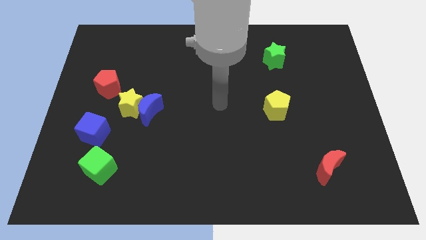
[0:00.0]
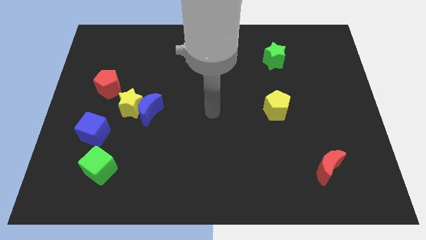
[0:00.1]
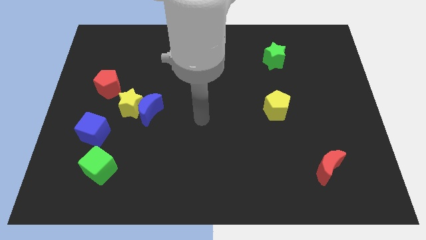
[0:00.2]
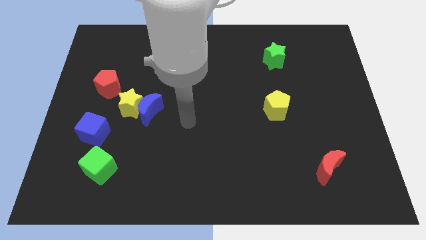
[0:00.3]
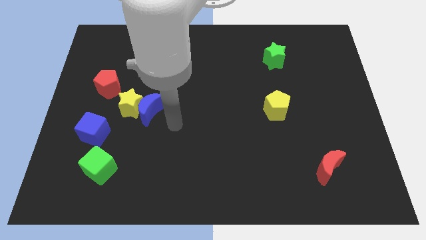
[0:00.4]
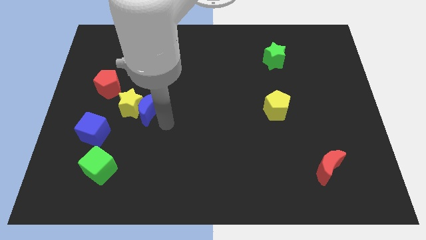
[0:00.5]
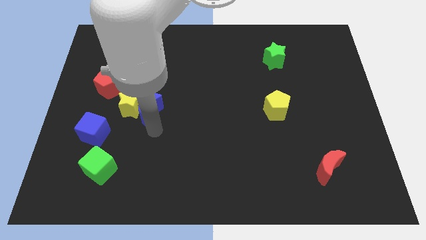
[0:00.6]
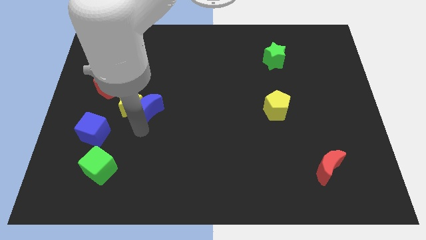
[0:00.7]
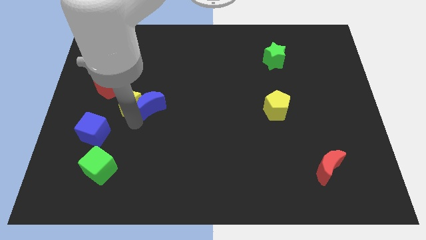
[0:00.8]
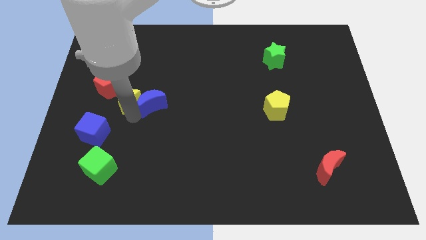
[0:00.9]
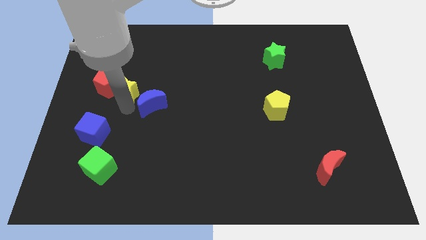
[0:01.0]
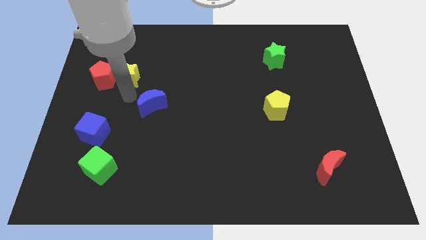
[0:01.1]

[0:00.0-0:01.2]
separate the blue moon from the yellow star

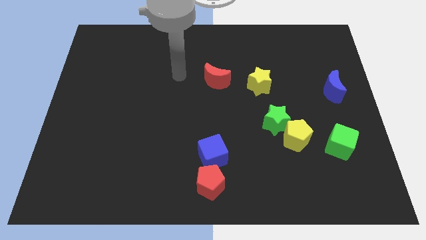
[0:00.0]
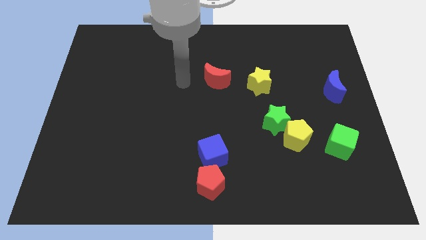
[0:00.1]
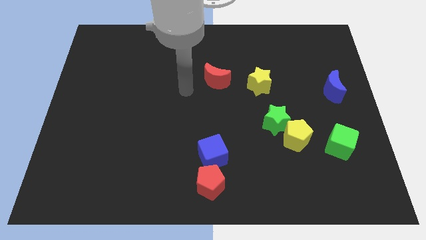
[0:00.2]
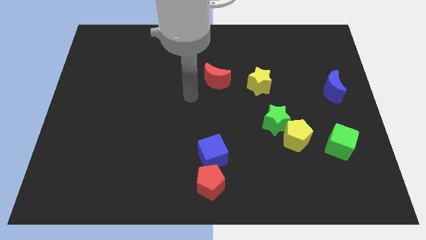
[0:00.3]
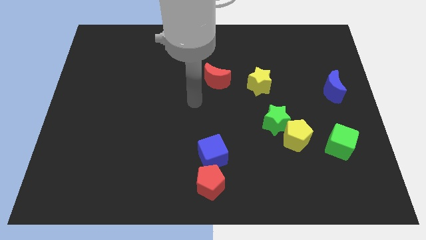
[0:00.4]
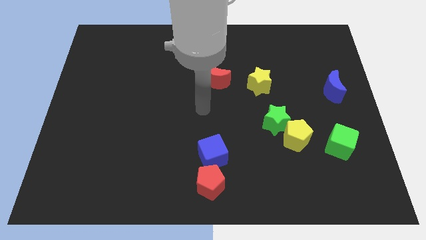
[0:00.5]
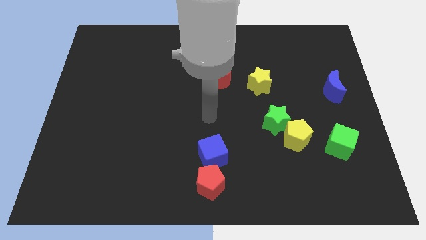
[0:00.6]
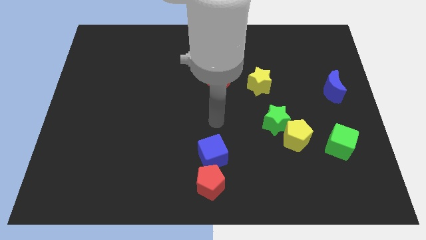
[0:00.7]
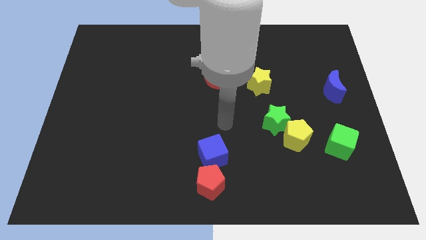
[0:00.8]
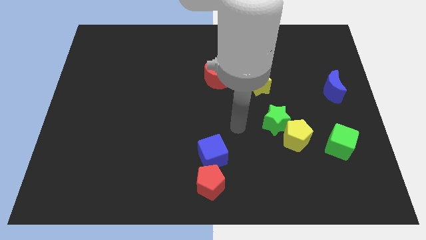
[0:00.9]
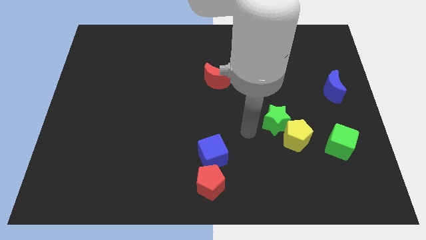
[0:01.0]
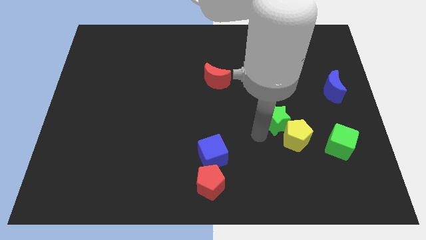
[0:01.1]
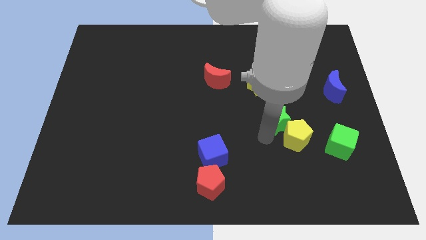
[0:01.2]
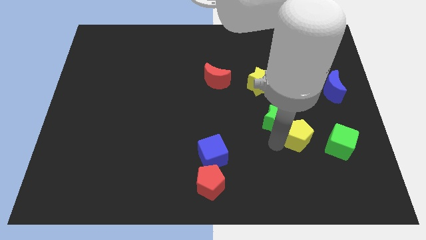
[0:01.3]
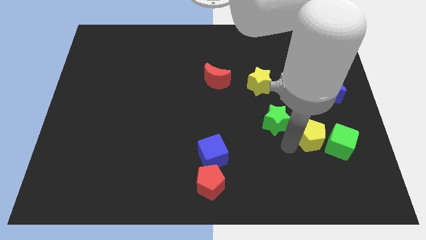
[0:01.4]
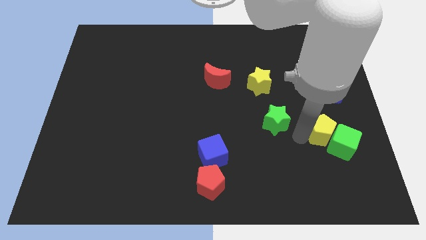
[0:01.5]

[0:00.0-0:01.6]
separate the green star from the yellow pentagon

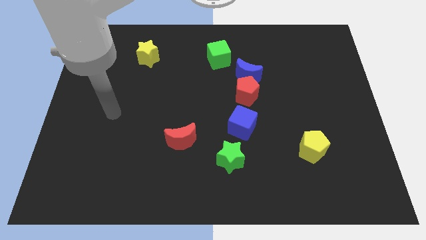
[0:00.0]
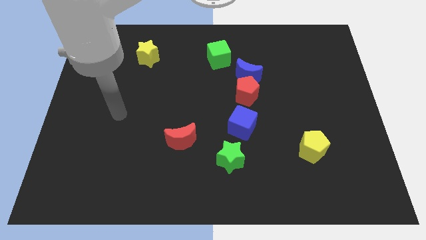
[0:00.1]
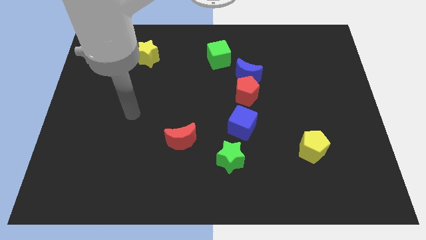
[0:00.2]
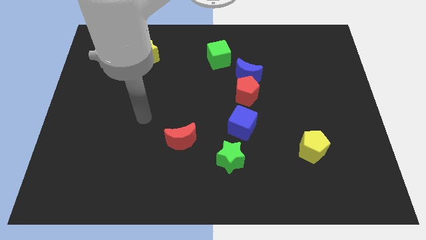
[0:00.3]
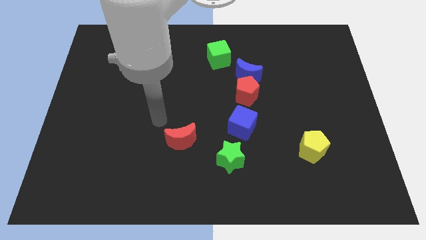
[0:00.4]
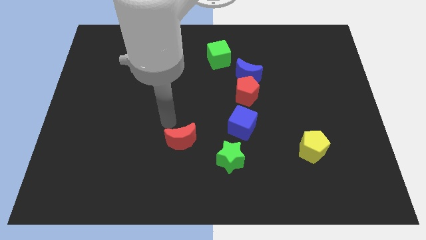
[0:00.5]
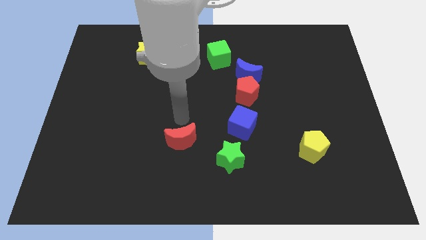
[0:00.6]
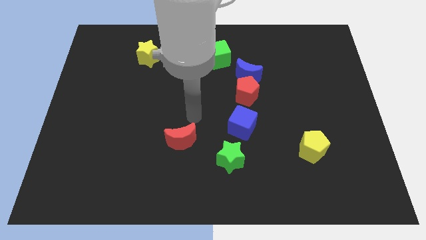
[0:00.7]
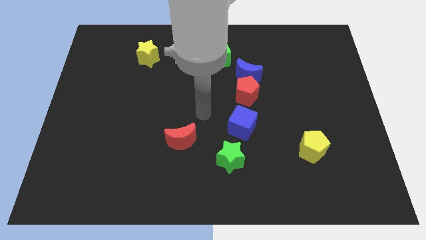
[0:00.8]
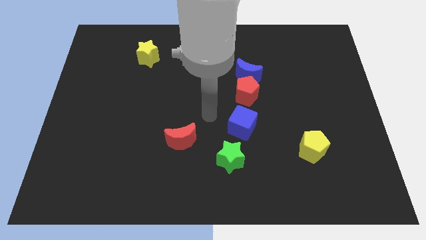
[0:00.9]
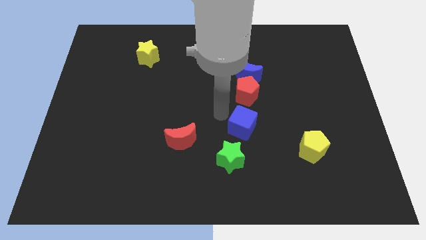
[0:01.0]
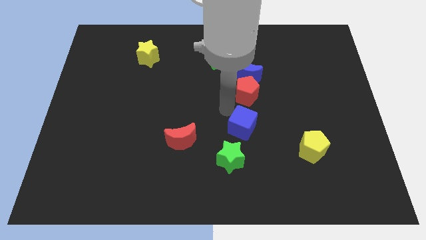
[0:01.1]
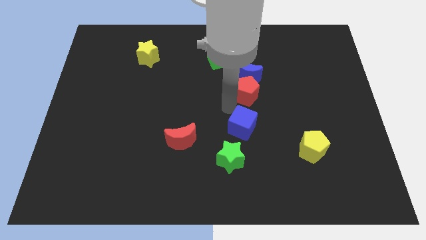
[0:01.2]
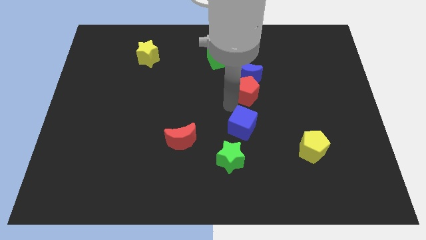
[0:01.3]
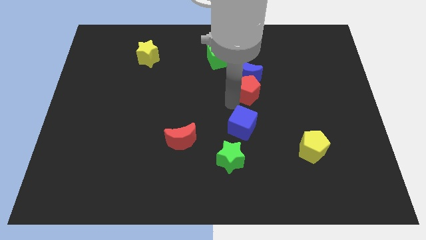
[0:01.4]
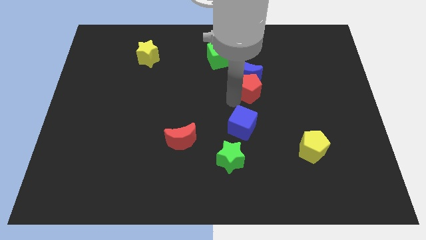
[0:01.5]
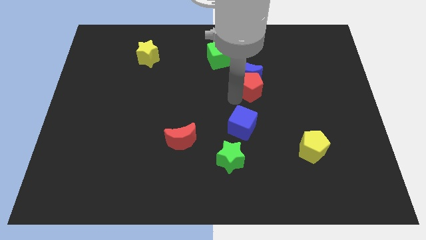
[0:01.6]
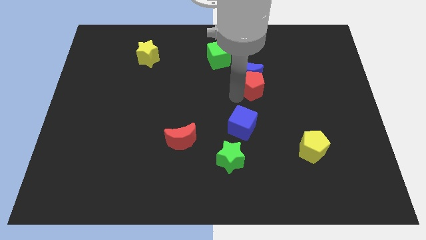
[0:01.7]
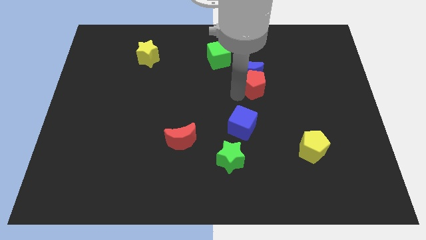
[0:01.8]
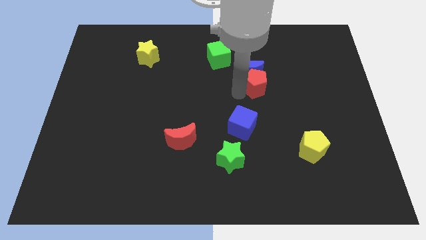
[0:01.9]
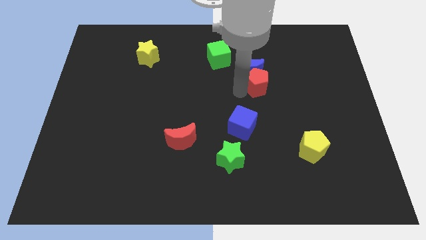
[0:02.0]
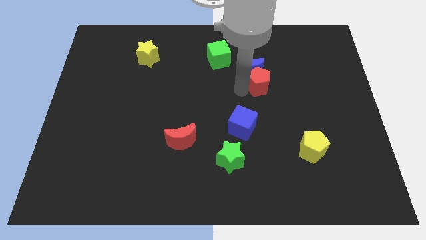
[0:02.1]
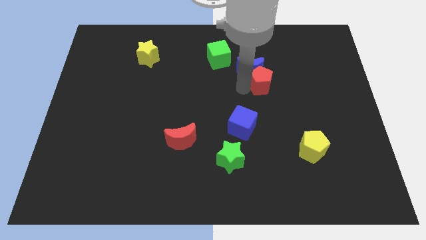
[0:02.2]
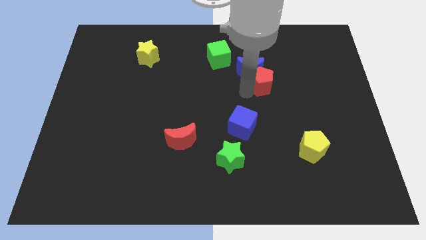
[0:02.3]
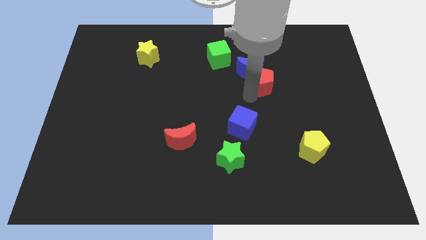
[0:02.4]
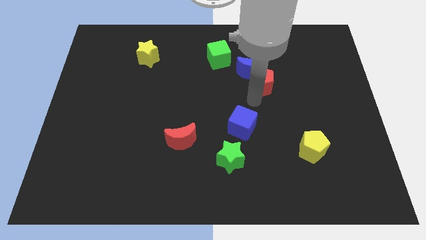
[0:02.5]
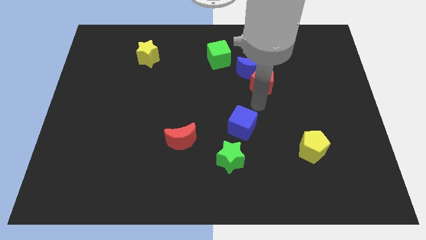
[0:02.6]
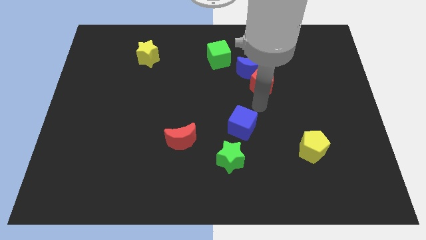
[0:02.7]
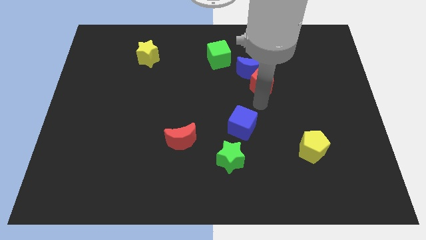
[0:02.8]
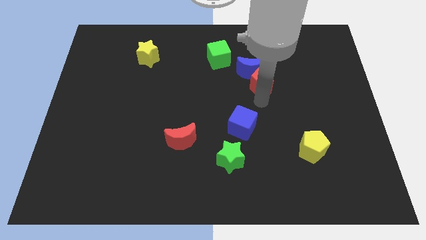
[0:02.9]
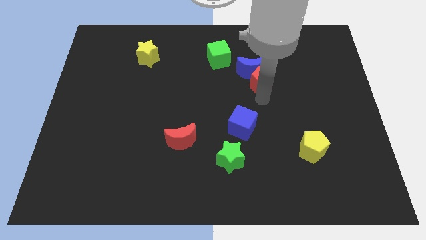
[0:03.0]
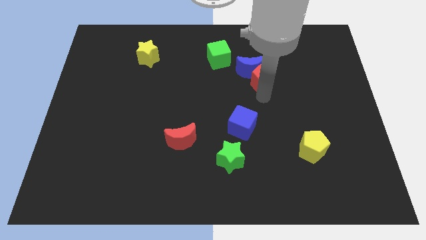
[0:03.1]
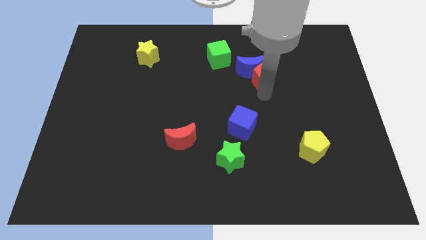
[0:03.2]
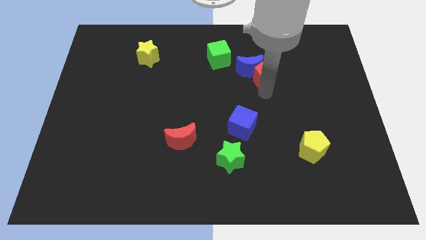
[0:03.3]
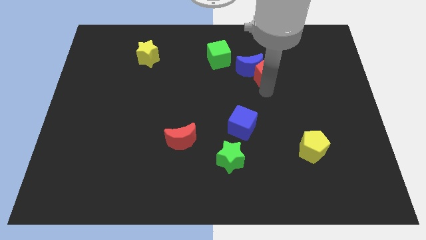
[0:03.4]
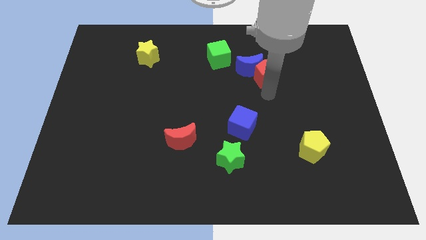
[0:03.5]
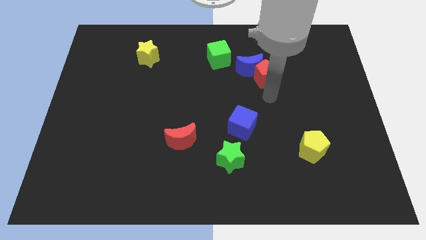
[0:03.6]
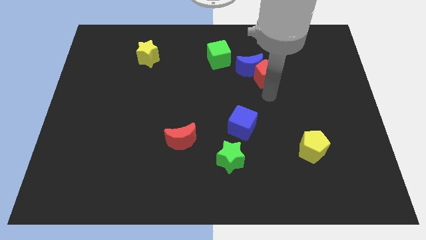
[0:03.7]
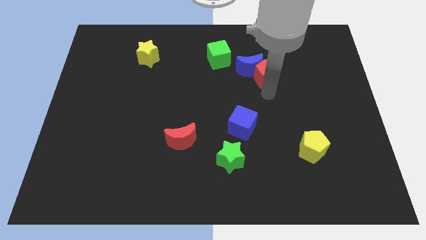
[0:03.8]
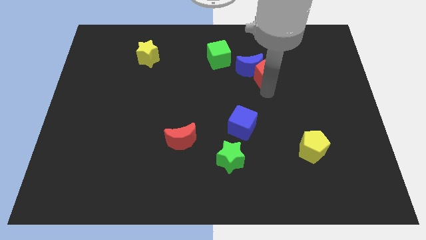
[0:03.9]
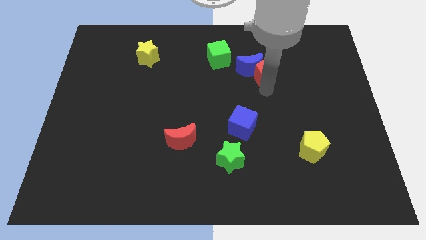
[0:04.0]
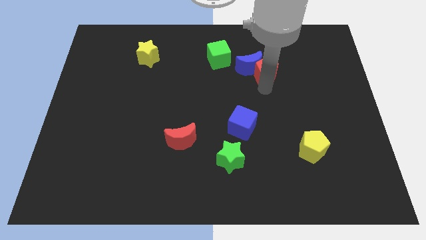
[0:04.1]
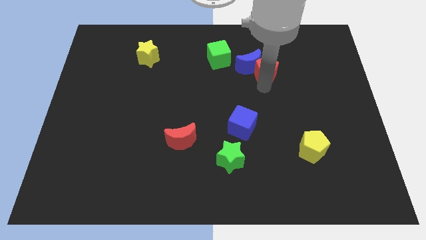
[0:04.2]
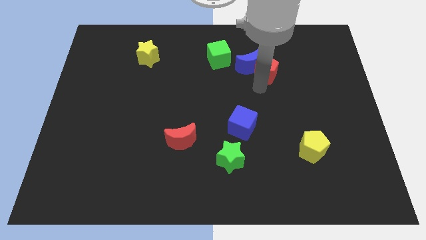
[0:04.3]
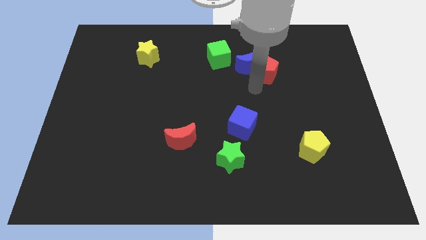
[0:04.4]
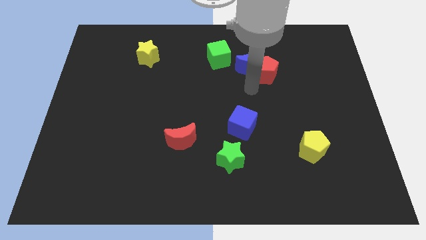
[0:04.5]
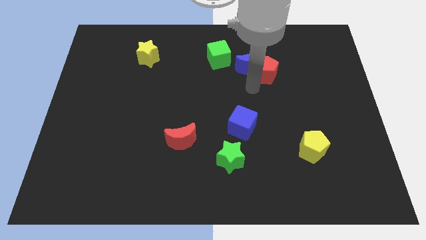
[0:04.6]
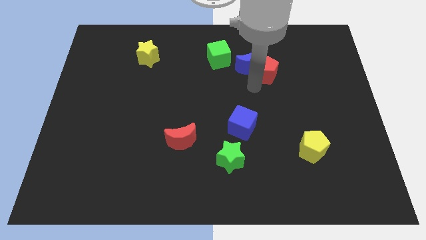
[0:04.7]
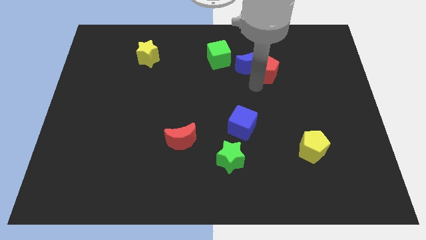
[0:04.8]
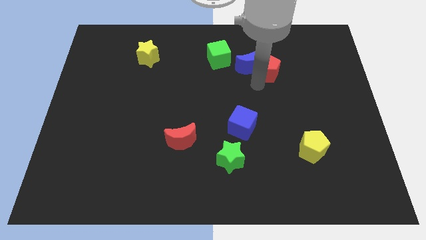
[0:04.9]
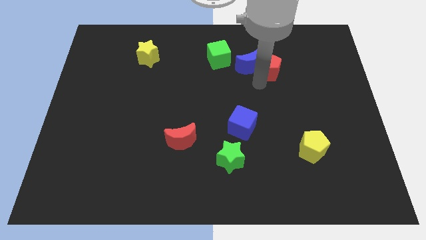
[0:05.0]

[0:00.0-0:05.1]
move the red pentagon away from the blue moon and blue cube

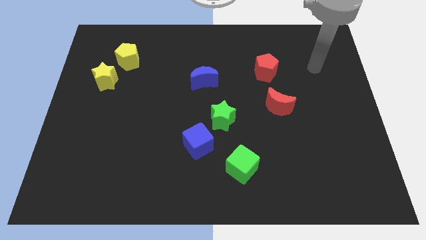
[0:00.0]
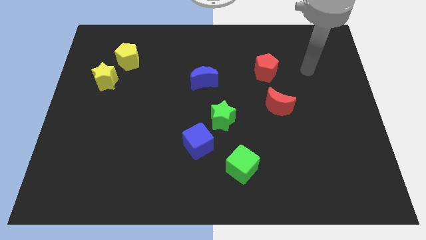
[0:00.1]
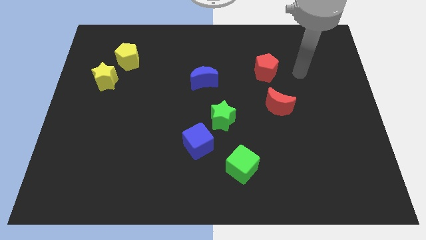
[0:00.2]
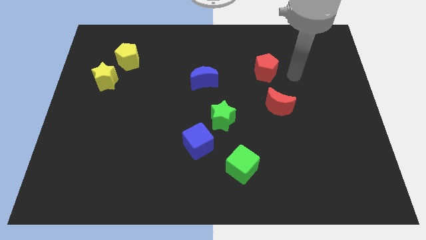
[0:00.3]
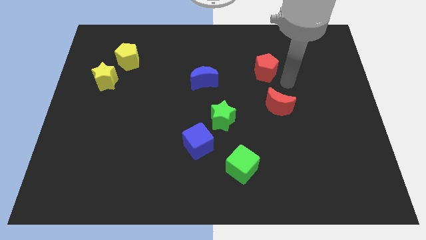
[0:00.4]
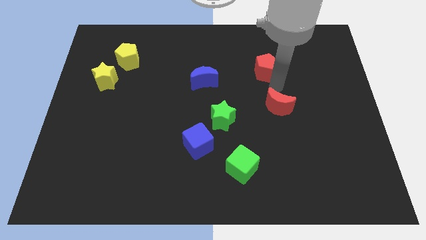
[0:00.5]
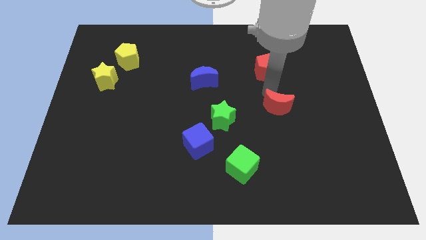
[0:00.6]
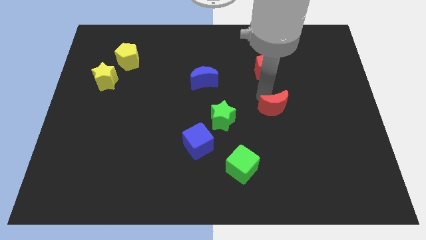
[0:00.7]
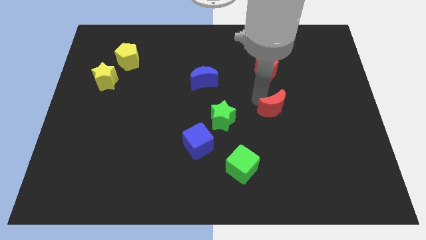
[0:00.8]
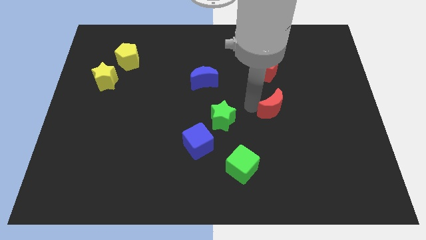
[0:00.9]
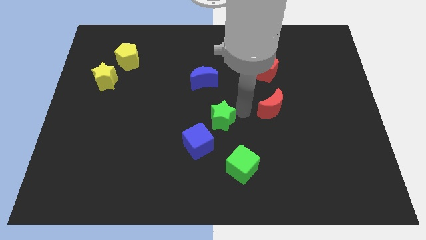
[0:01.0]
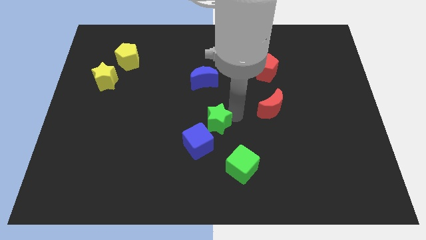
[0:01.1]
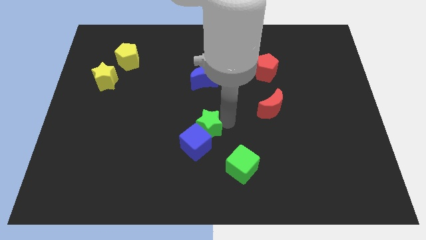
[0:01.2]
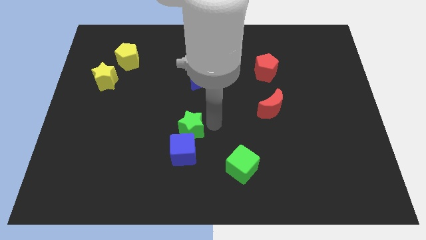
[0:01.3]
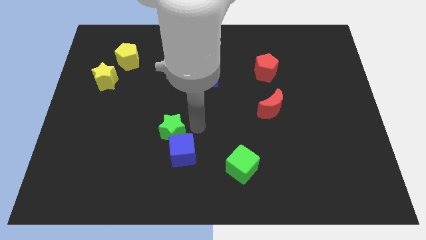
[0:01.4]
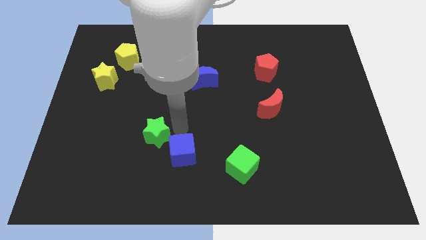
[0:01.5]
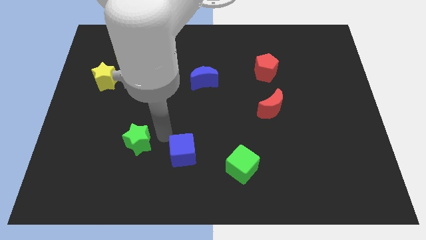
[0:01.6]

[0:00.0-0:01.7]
separate the blue cube from the green star
